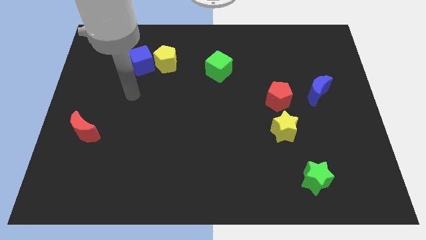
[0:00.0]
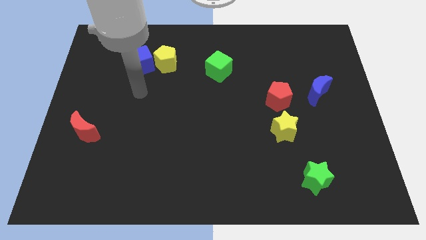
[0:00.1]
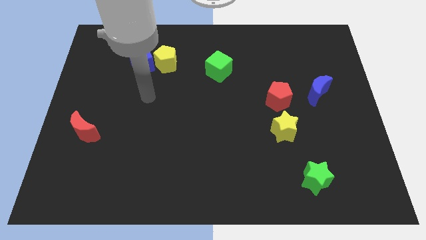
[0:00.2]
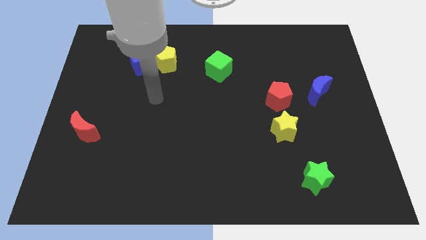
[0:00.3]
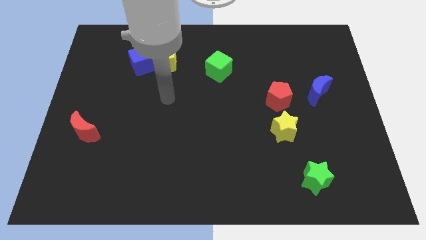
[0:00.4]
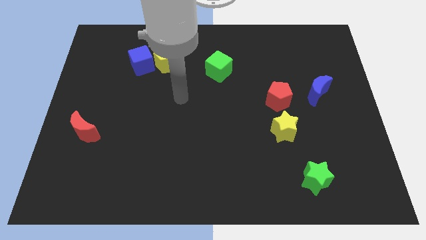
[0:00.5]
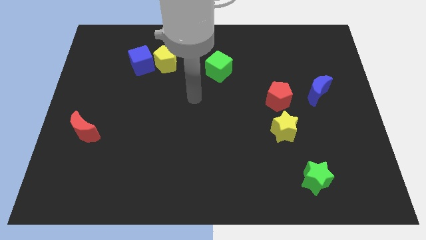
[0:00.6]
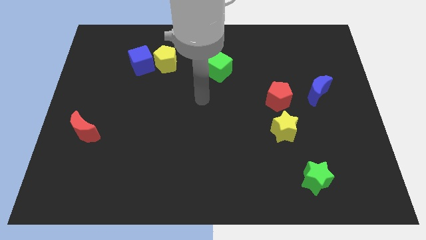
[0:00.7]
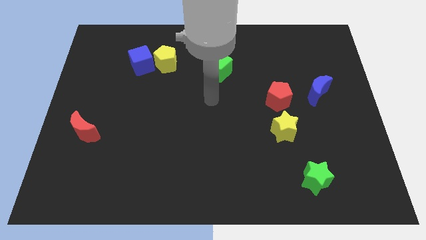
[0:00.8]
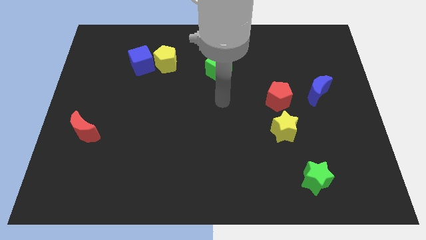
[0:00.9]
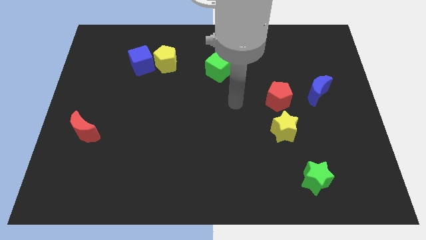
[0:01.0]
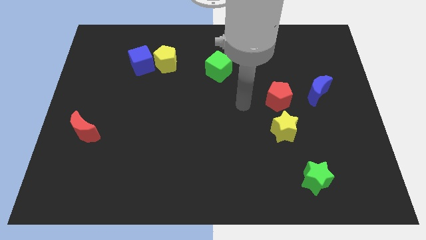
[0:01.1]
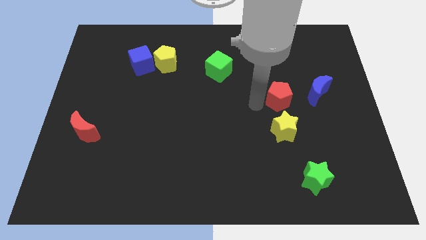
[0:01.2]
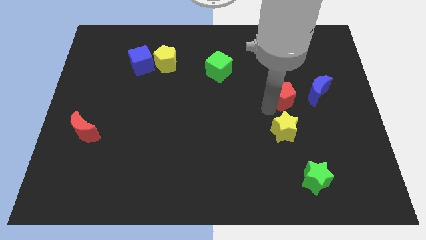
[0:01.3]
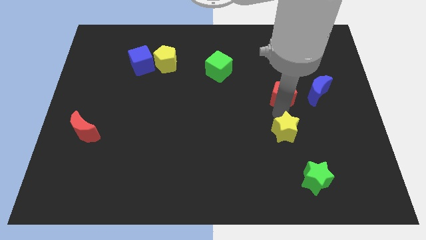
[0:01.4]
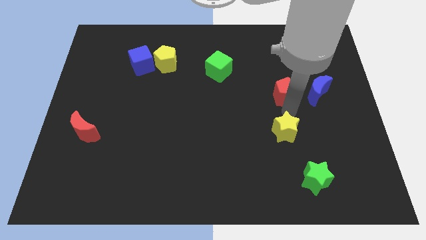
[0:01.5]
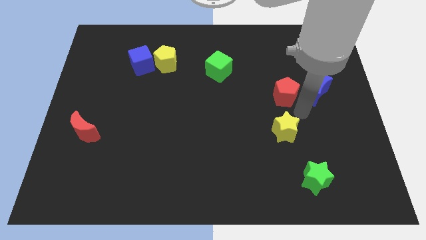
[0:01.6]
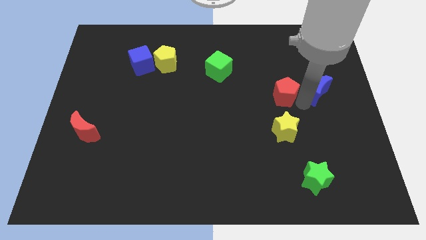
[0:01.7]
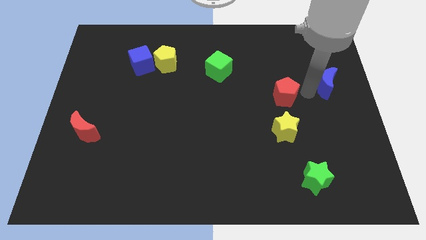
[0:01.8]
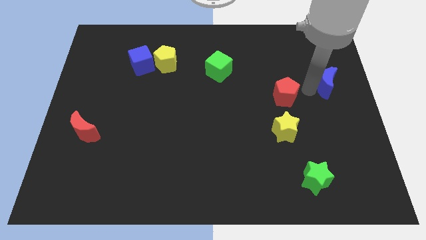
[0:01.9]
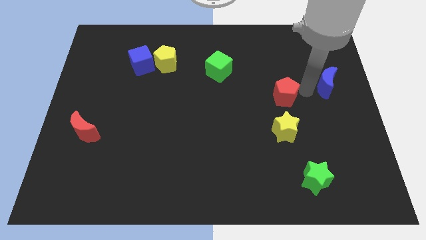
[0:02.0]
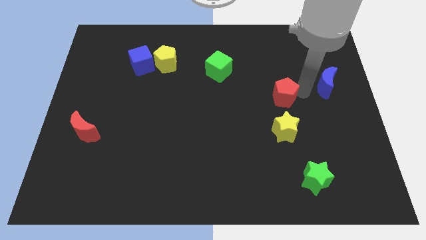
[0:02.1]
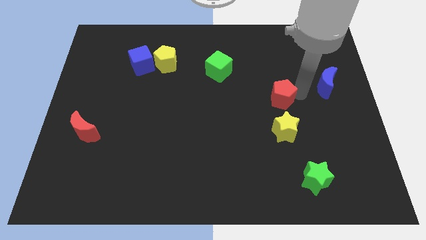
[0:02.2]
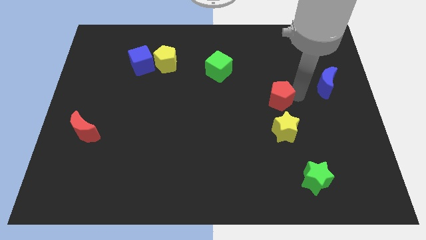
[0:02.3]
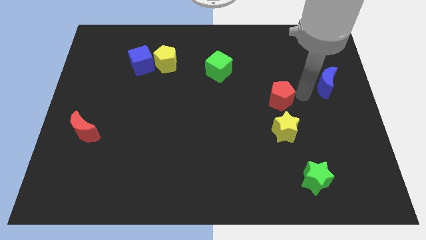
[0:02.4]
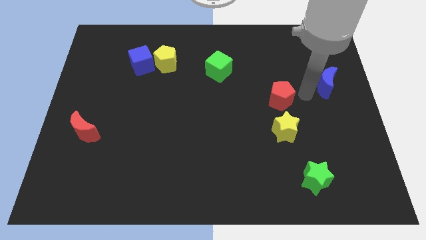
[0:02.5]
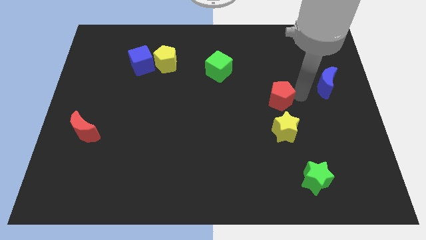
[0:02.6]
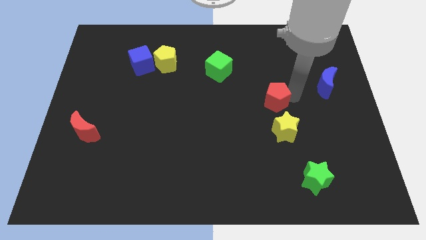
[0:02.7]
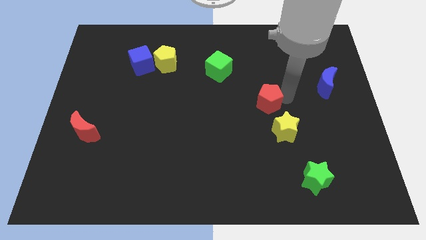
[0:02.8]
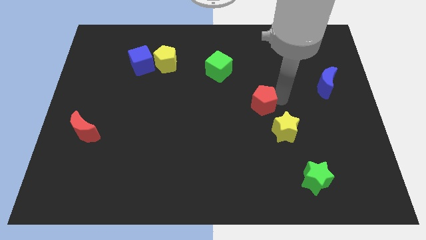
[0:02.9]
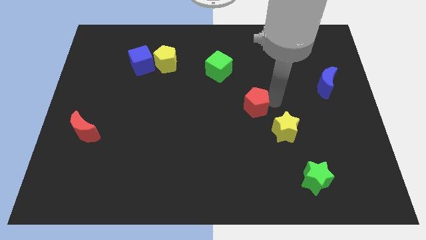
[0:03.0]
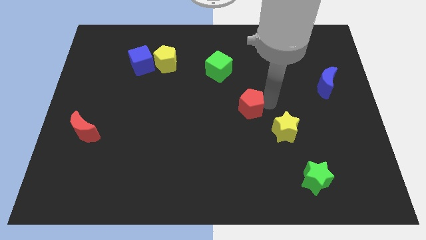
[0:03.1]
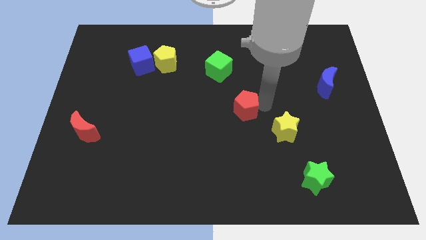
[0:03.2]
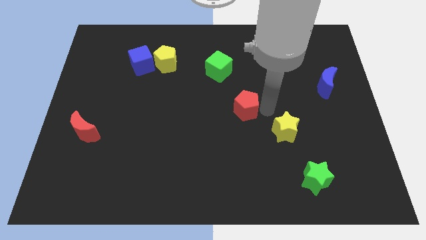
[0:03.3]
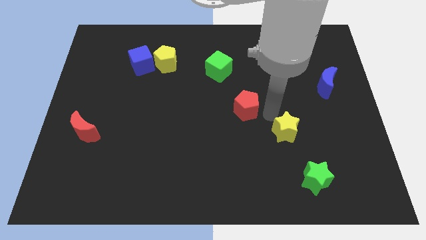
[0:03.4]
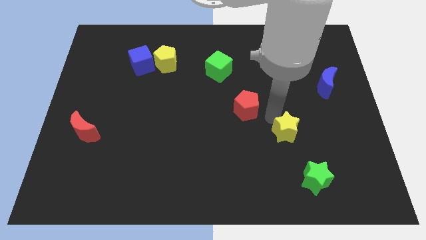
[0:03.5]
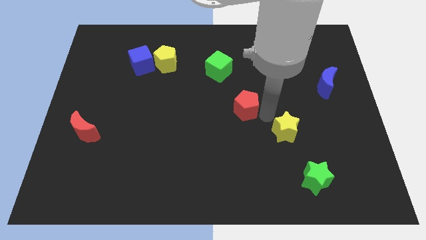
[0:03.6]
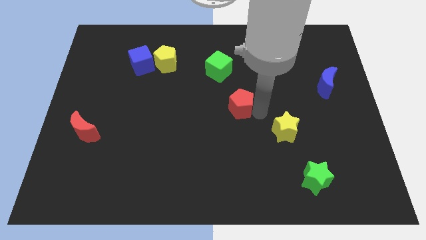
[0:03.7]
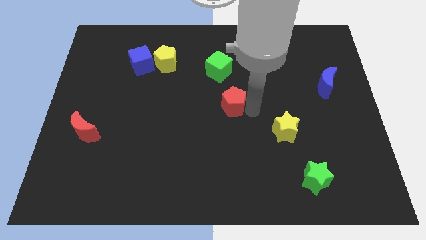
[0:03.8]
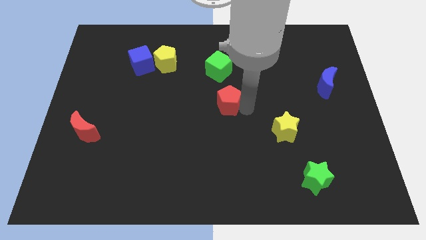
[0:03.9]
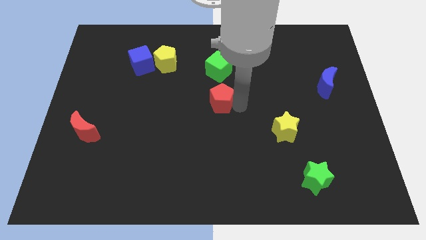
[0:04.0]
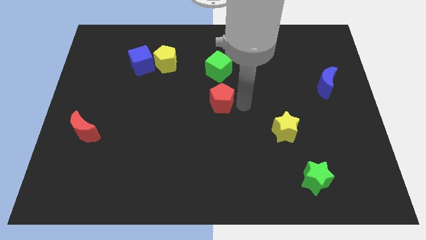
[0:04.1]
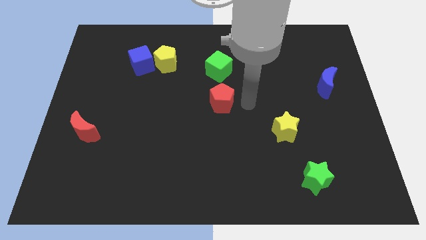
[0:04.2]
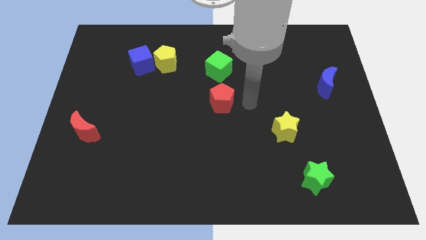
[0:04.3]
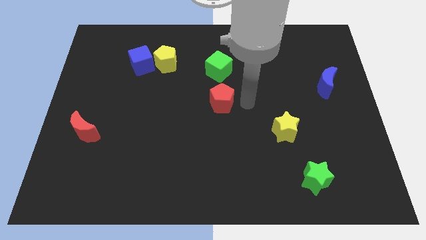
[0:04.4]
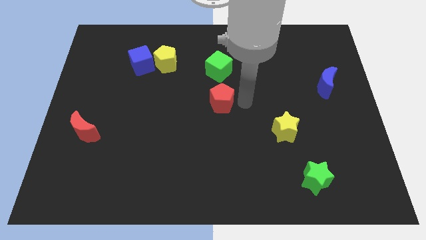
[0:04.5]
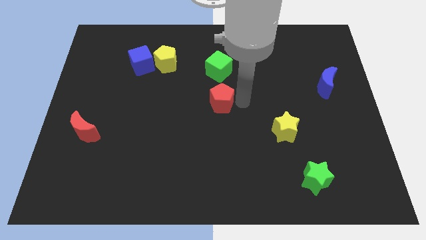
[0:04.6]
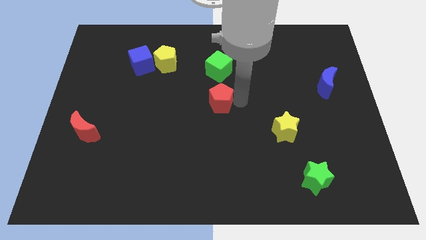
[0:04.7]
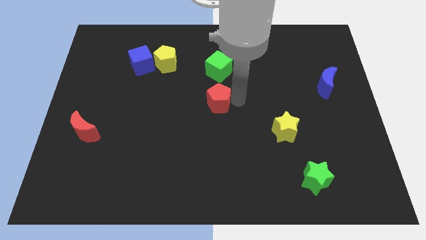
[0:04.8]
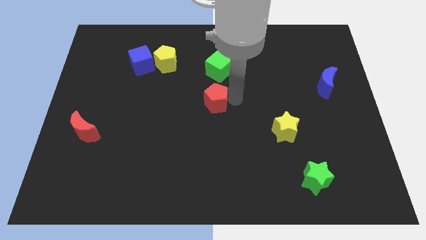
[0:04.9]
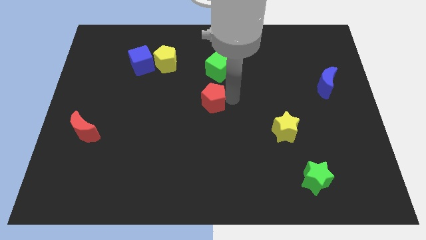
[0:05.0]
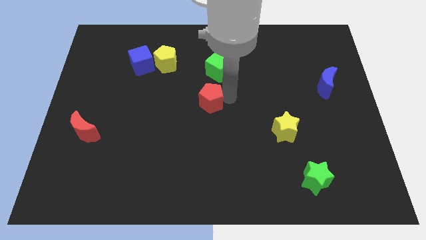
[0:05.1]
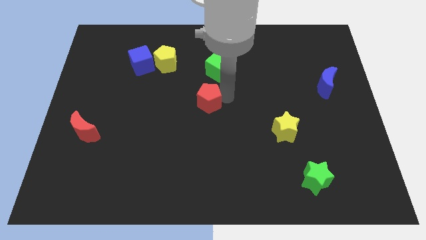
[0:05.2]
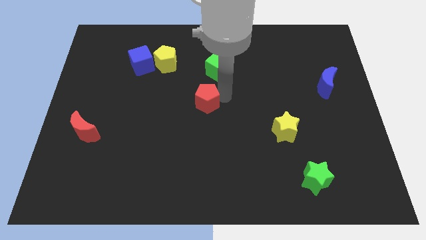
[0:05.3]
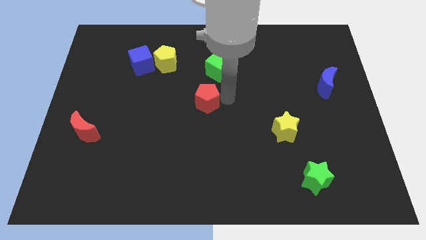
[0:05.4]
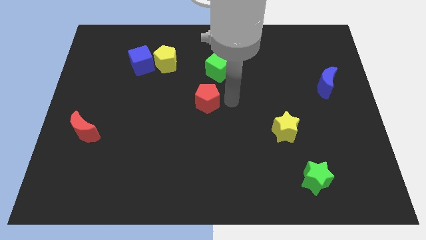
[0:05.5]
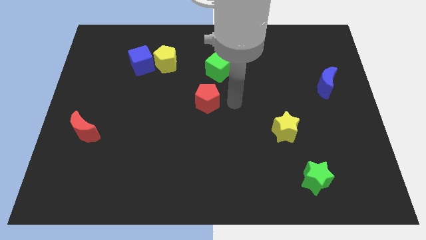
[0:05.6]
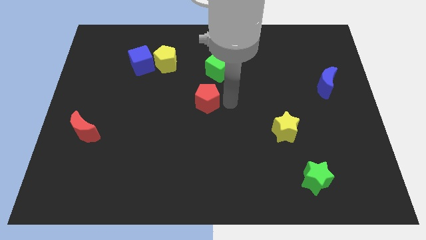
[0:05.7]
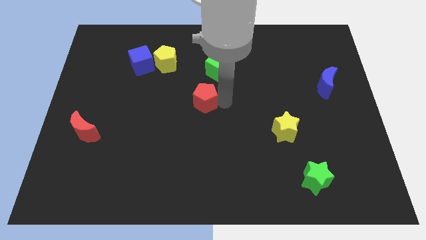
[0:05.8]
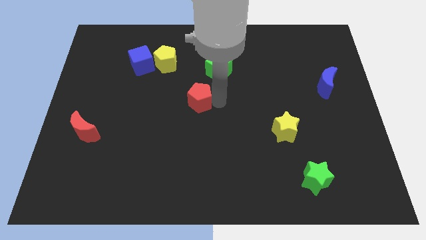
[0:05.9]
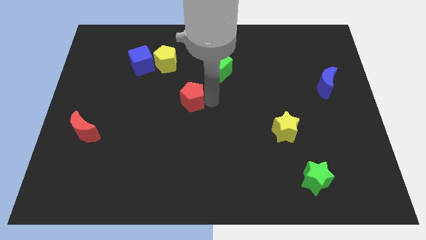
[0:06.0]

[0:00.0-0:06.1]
move the red pentagon left

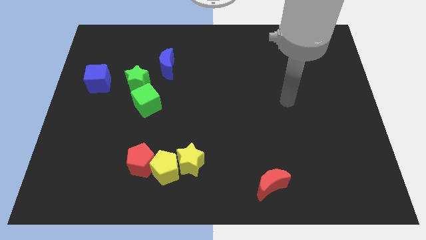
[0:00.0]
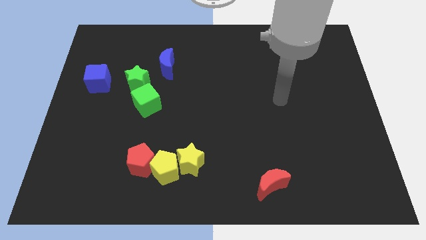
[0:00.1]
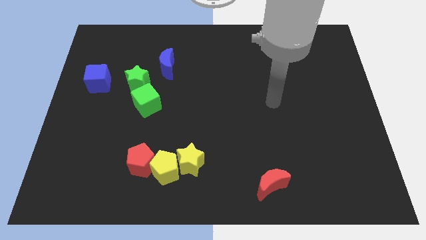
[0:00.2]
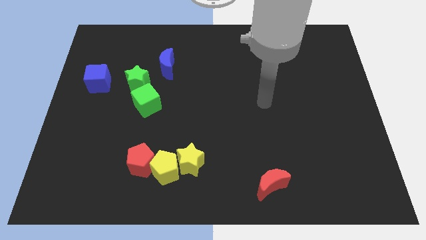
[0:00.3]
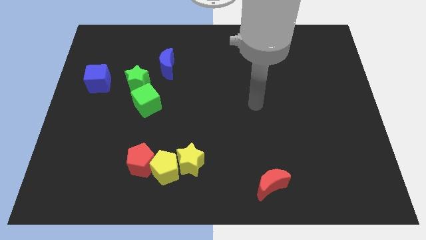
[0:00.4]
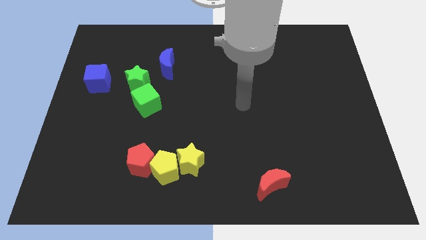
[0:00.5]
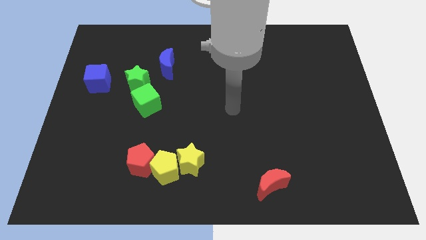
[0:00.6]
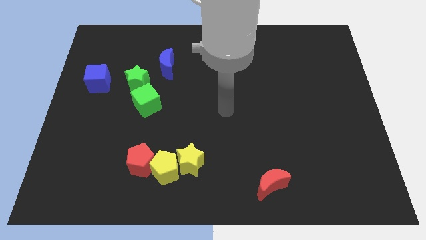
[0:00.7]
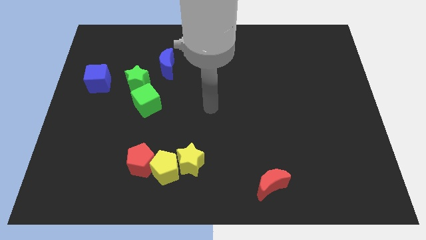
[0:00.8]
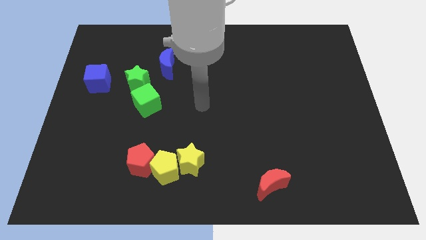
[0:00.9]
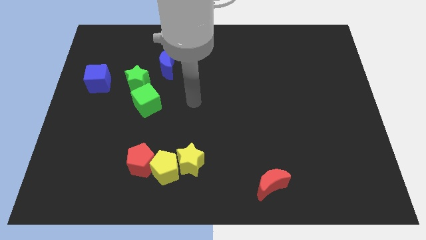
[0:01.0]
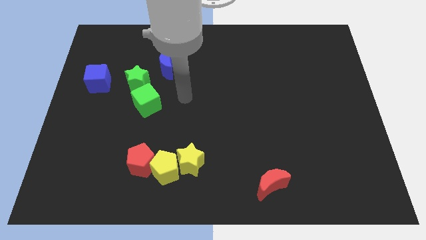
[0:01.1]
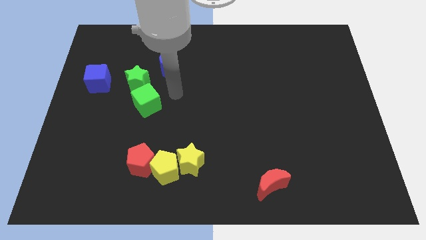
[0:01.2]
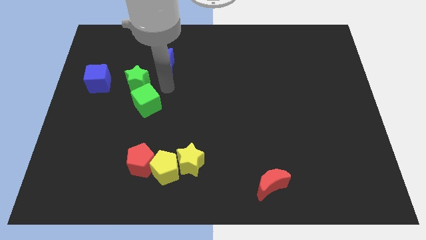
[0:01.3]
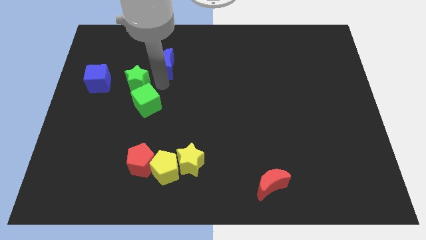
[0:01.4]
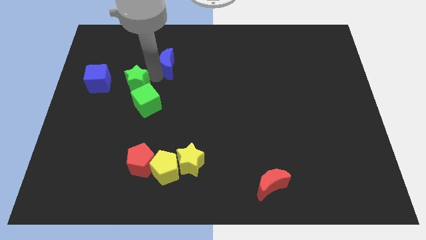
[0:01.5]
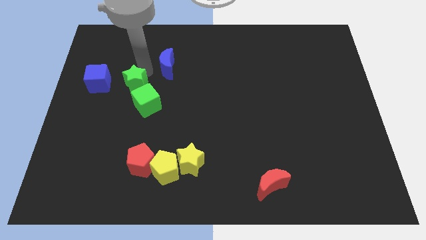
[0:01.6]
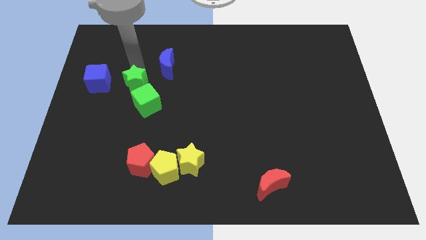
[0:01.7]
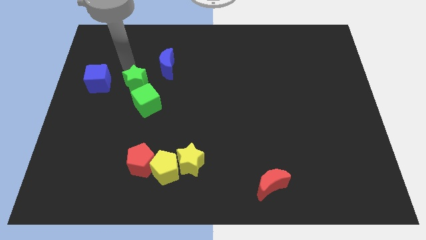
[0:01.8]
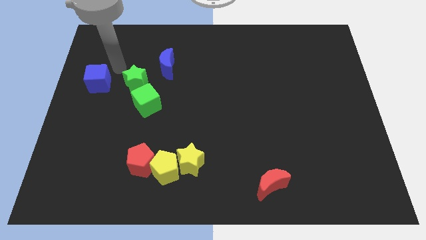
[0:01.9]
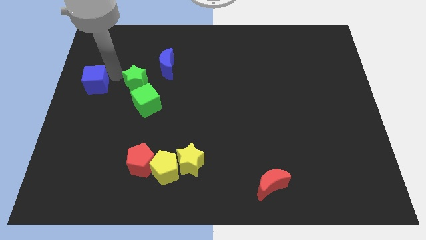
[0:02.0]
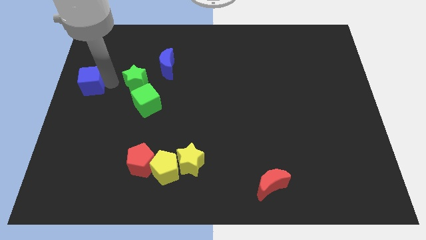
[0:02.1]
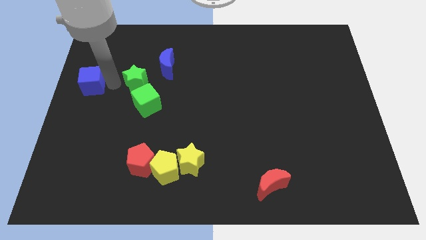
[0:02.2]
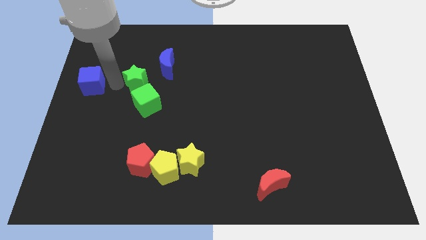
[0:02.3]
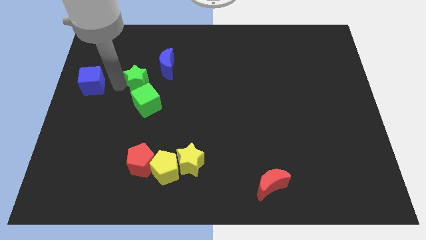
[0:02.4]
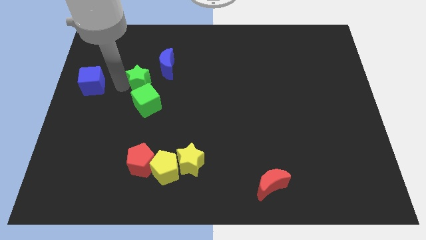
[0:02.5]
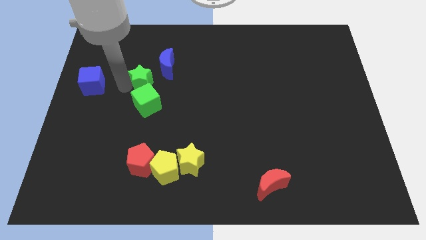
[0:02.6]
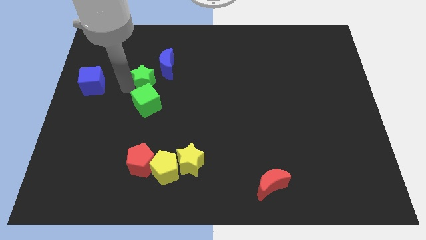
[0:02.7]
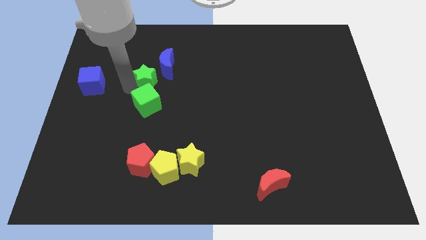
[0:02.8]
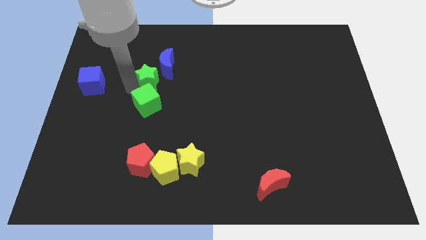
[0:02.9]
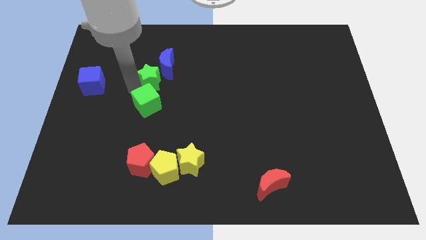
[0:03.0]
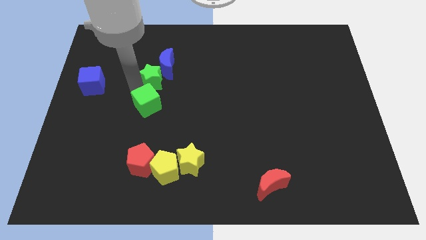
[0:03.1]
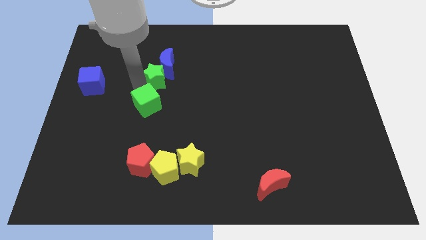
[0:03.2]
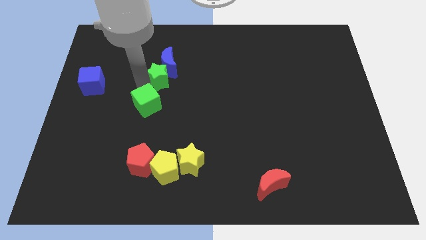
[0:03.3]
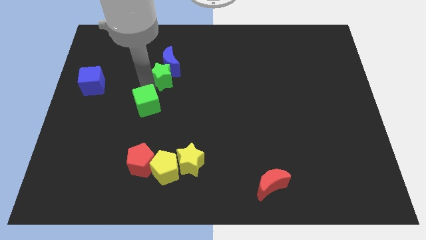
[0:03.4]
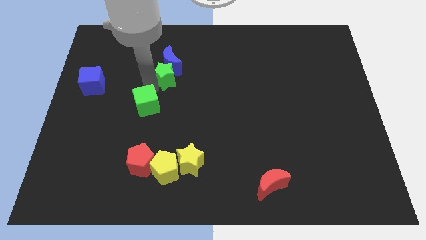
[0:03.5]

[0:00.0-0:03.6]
slightly slide the green star right
